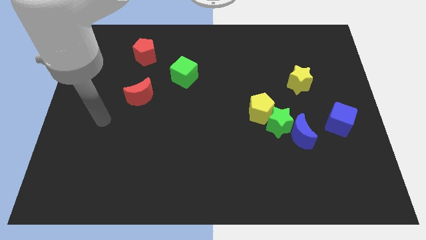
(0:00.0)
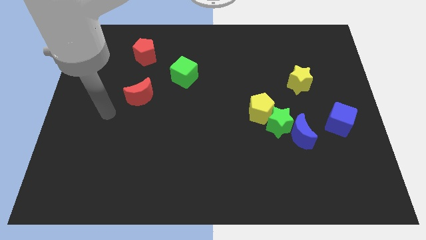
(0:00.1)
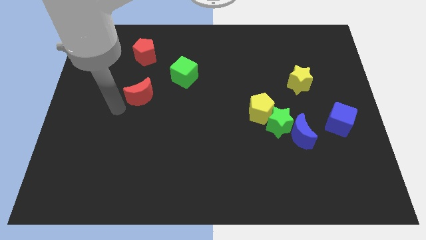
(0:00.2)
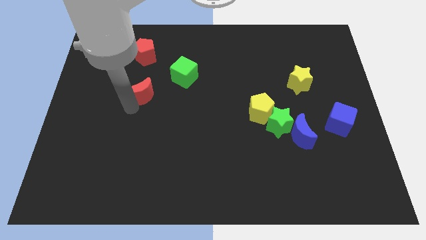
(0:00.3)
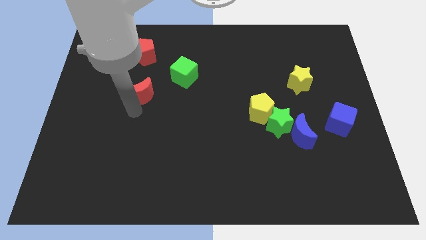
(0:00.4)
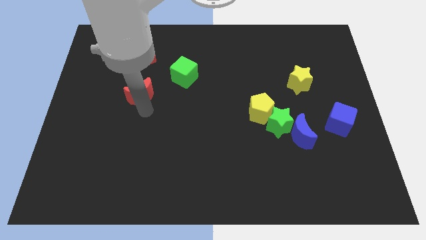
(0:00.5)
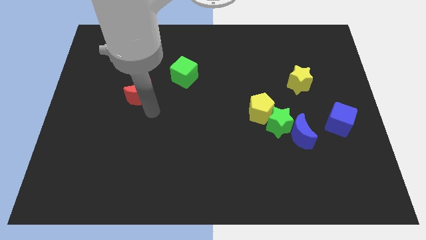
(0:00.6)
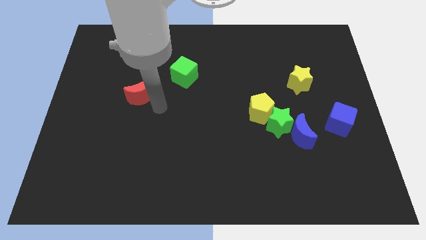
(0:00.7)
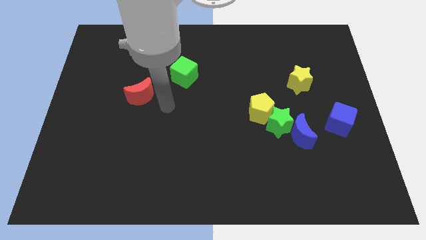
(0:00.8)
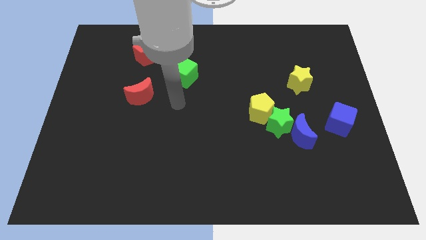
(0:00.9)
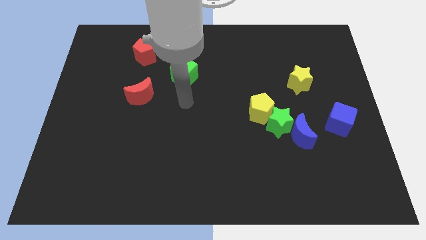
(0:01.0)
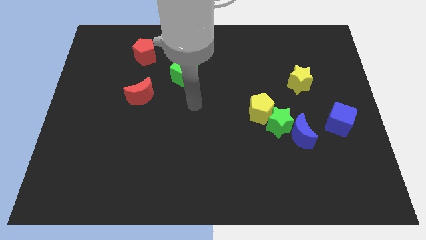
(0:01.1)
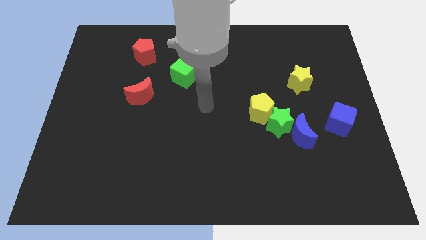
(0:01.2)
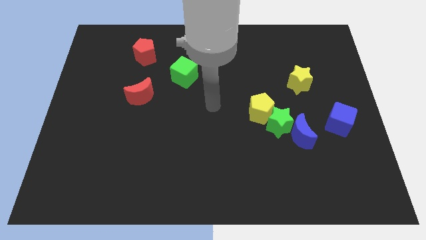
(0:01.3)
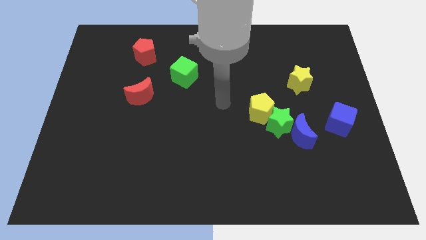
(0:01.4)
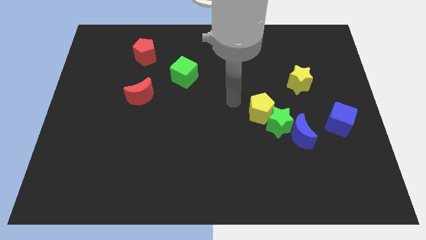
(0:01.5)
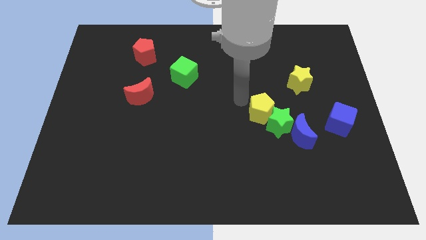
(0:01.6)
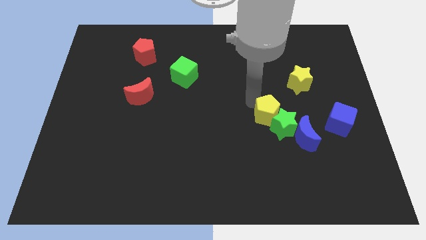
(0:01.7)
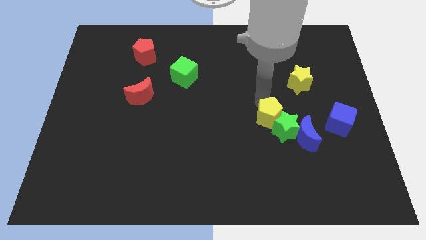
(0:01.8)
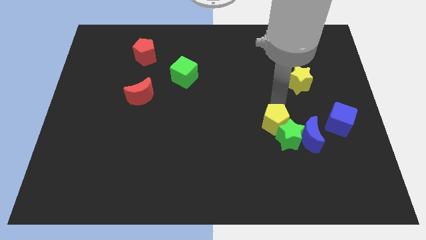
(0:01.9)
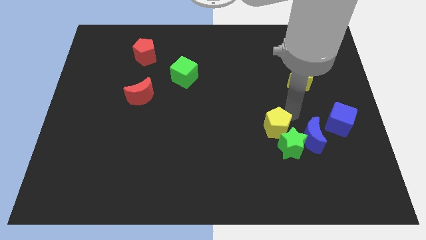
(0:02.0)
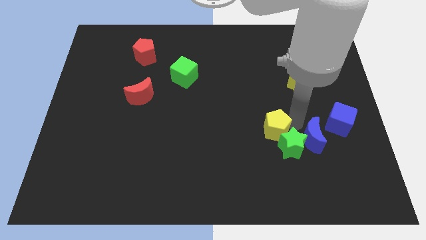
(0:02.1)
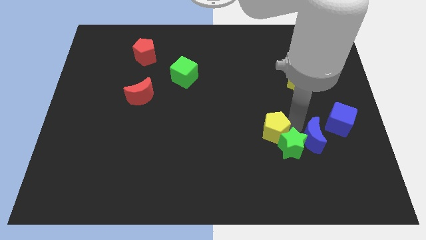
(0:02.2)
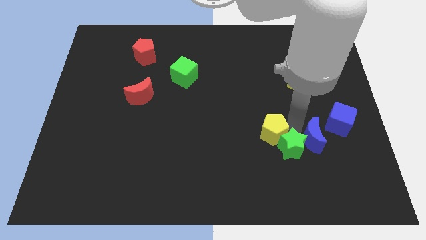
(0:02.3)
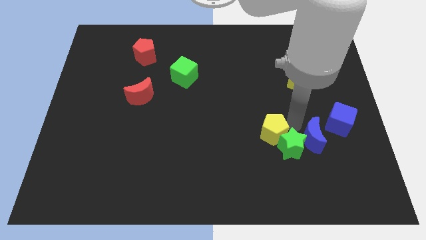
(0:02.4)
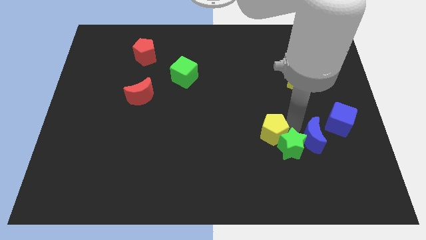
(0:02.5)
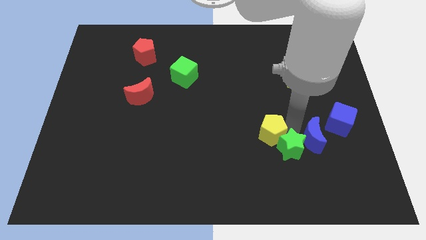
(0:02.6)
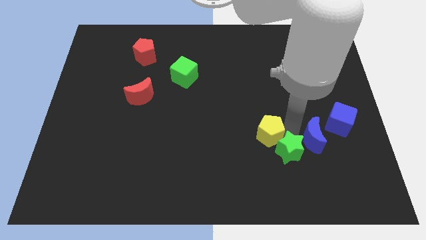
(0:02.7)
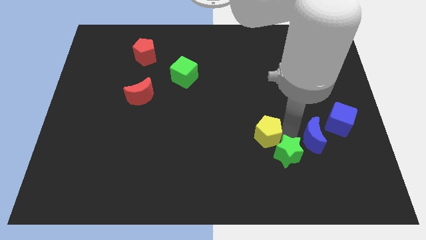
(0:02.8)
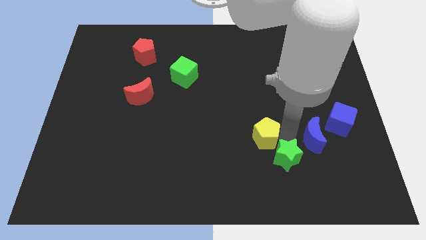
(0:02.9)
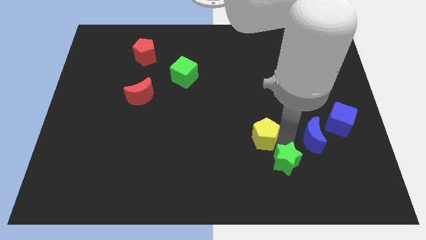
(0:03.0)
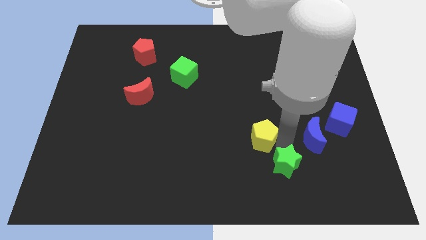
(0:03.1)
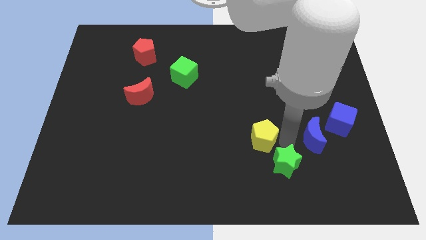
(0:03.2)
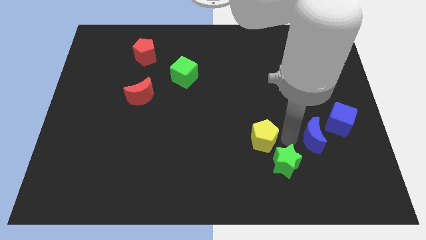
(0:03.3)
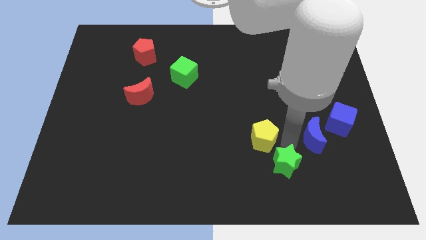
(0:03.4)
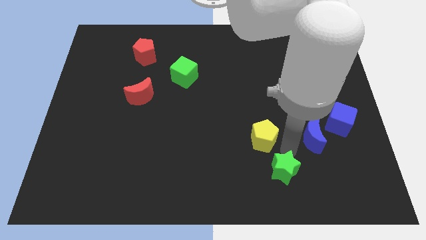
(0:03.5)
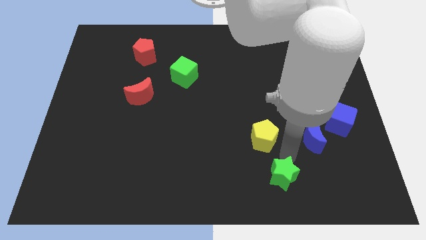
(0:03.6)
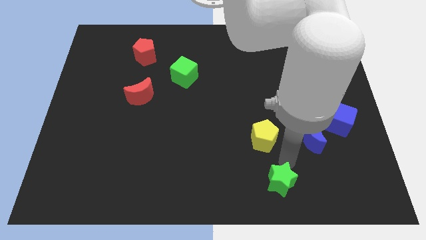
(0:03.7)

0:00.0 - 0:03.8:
pull the green star apart from the blue moon and yellow pentagon

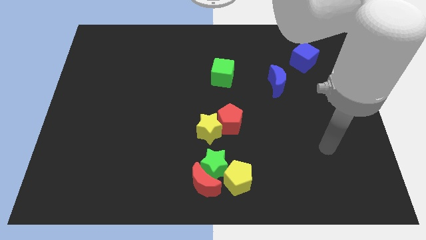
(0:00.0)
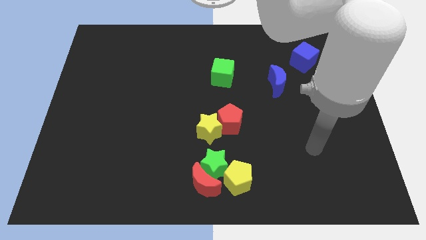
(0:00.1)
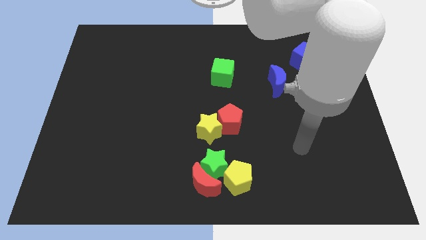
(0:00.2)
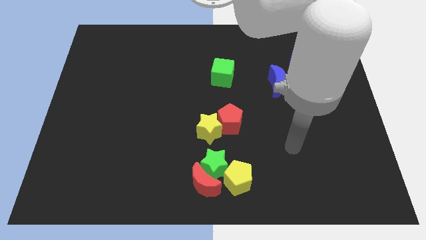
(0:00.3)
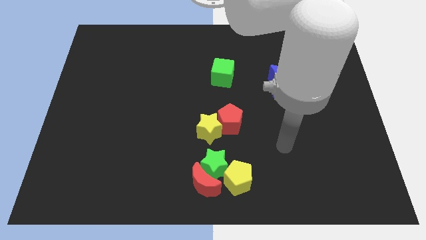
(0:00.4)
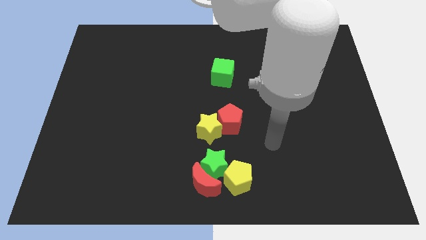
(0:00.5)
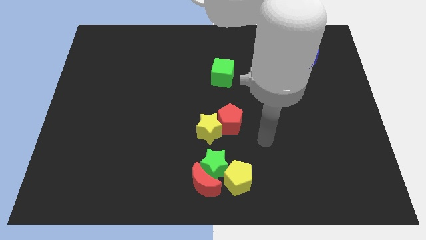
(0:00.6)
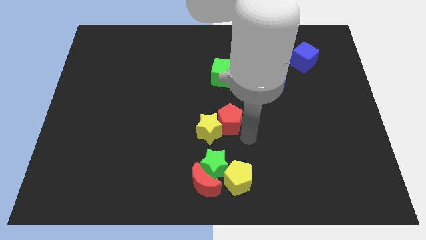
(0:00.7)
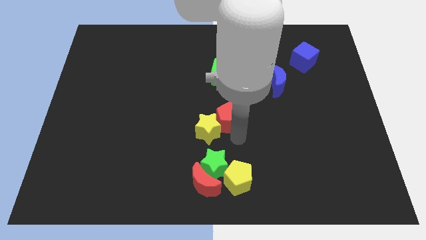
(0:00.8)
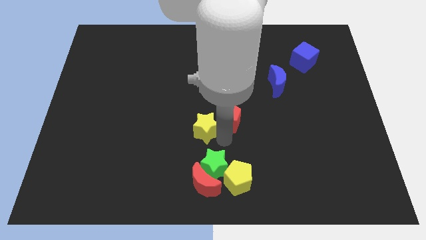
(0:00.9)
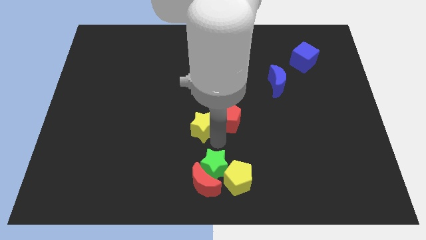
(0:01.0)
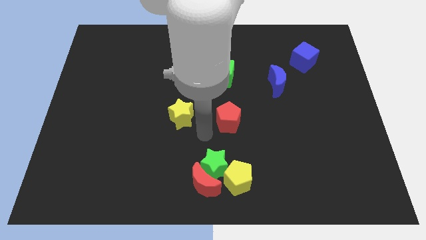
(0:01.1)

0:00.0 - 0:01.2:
separate the red pentagon from the yellow star

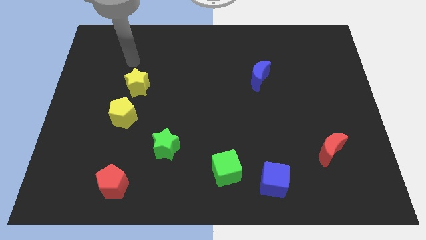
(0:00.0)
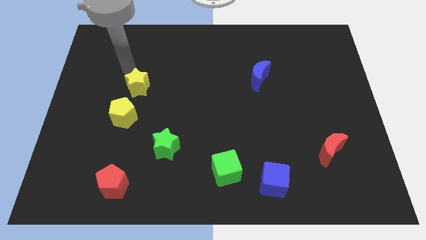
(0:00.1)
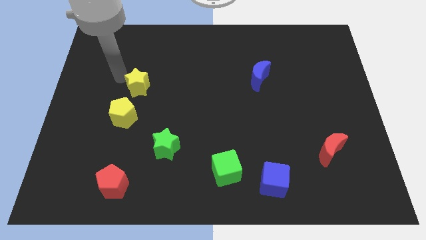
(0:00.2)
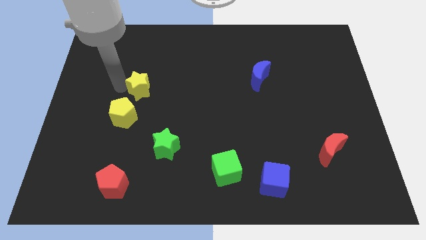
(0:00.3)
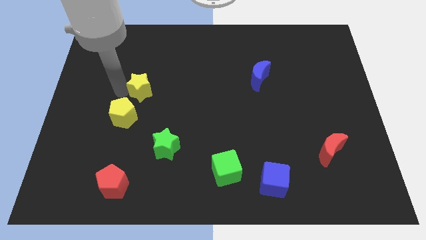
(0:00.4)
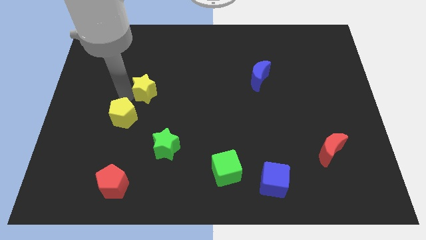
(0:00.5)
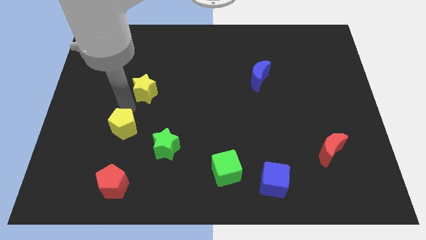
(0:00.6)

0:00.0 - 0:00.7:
move the yellow star away from the yellow pentagon

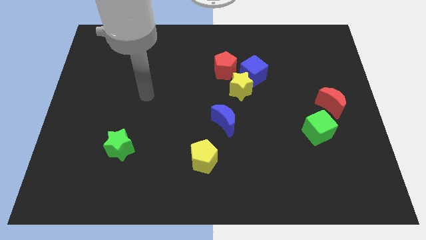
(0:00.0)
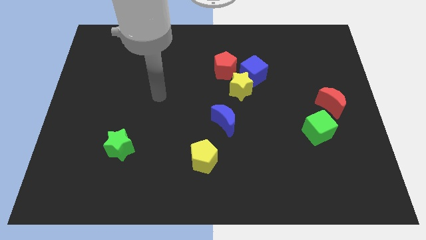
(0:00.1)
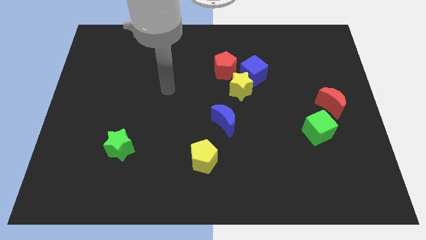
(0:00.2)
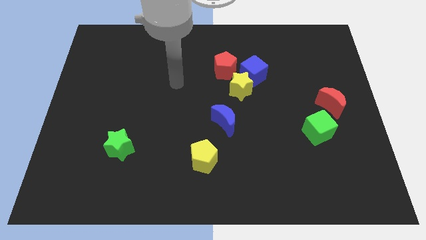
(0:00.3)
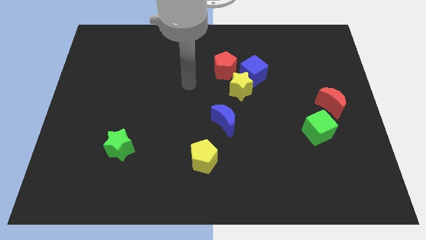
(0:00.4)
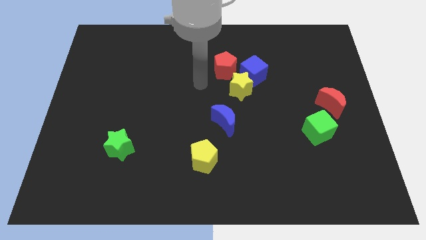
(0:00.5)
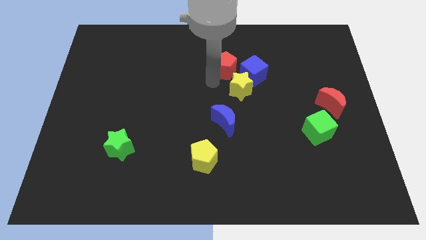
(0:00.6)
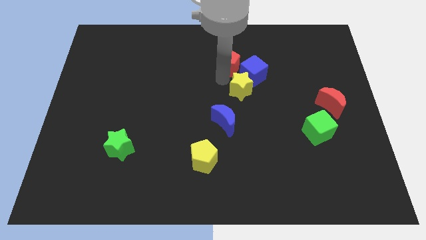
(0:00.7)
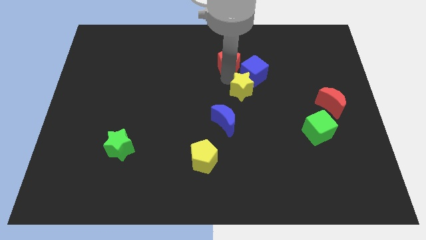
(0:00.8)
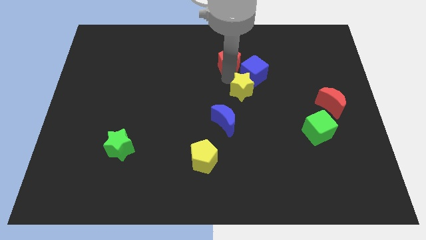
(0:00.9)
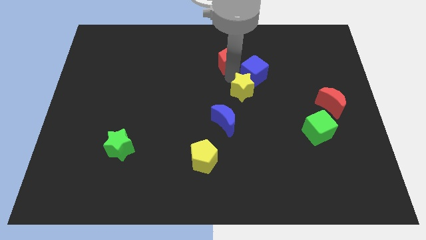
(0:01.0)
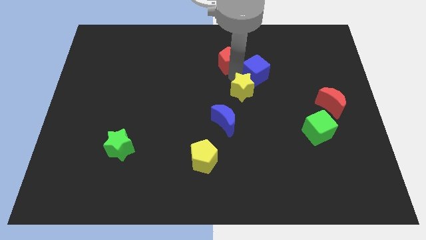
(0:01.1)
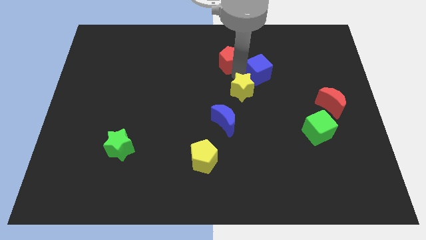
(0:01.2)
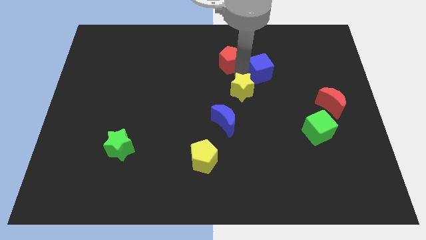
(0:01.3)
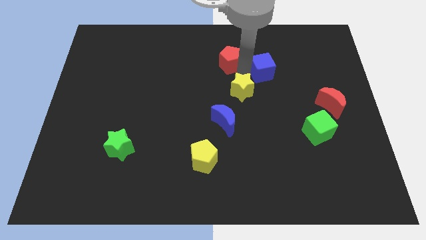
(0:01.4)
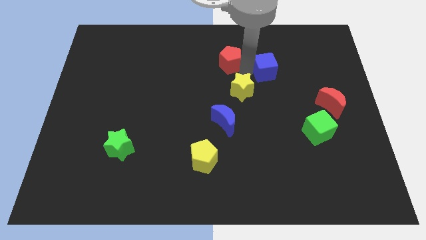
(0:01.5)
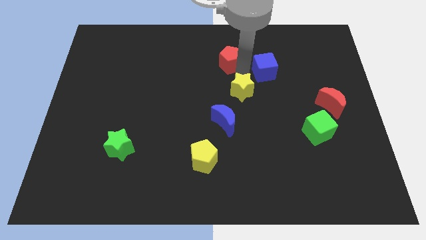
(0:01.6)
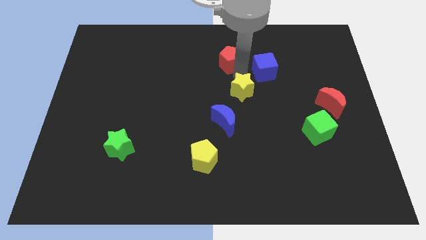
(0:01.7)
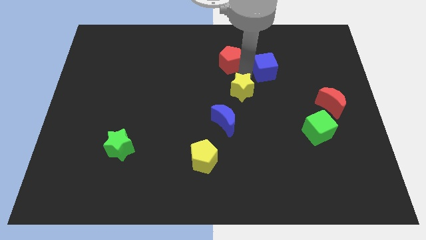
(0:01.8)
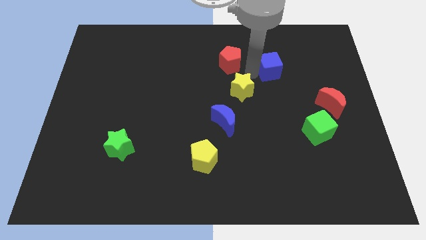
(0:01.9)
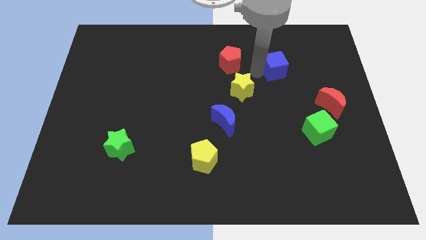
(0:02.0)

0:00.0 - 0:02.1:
separate the blue cube from the yellow star and red pentagon

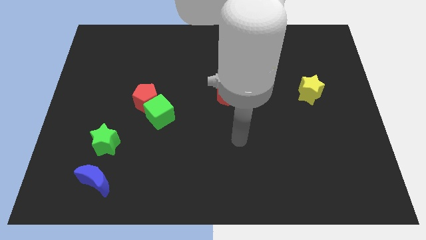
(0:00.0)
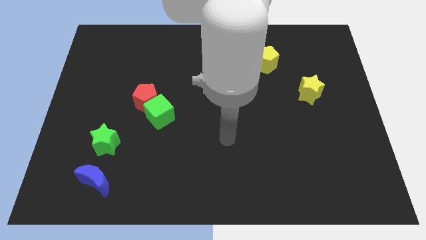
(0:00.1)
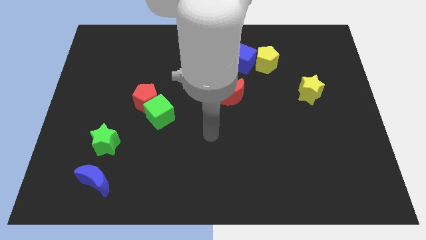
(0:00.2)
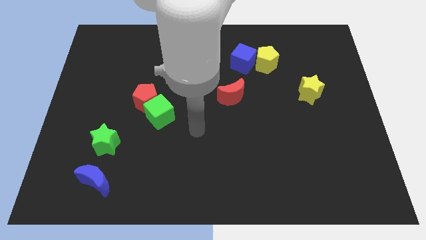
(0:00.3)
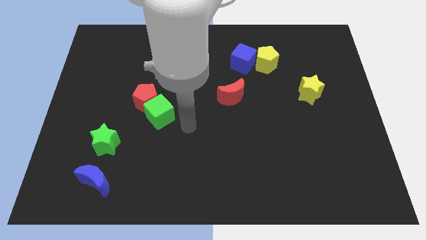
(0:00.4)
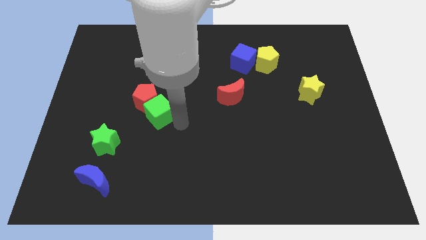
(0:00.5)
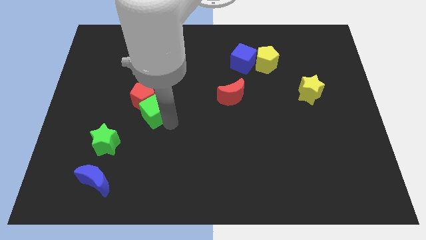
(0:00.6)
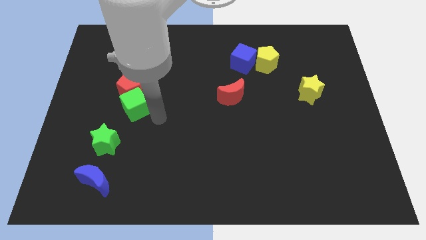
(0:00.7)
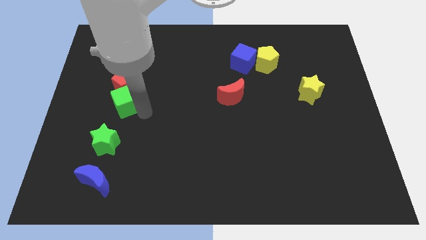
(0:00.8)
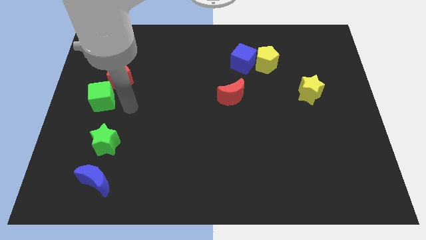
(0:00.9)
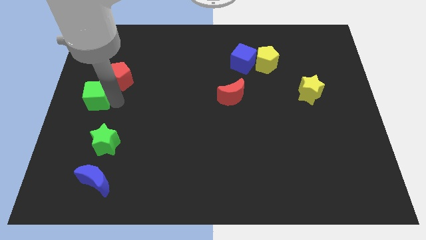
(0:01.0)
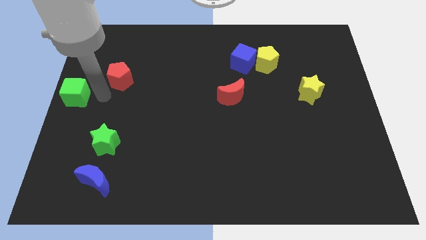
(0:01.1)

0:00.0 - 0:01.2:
pull the red pentagon apart from the green cube

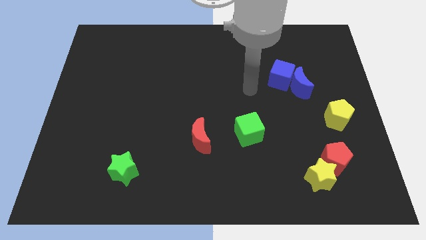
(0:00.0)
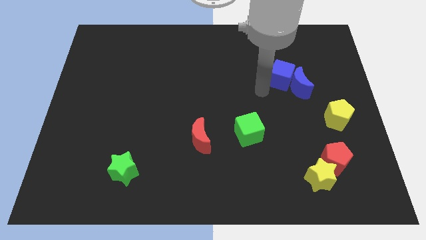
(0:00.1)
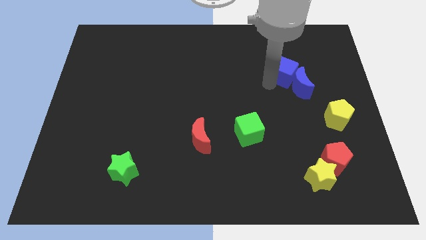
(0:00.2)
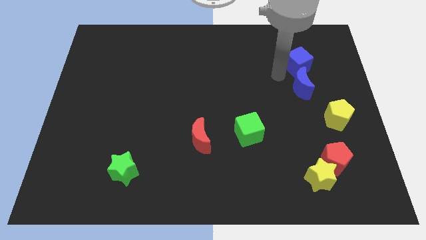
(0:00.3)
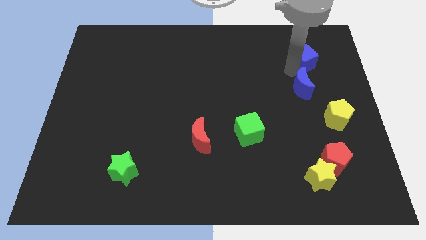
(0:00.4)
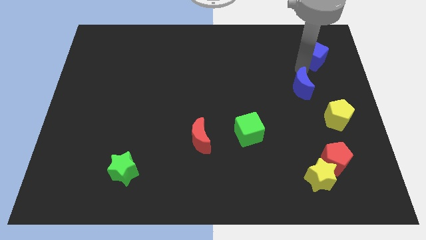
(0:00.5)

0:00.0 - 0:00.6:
separate the blue moon from the blue cube
